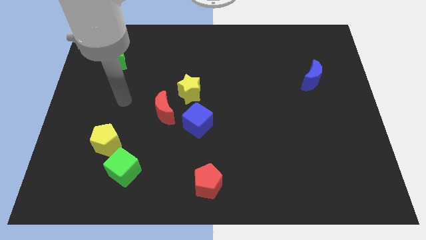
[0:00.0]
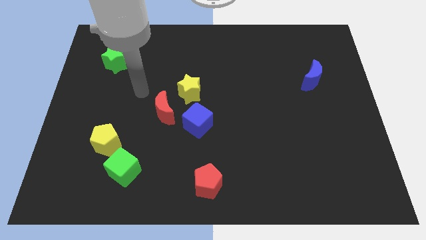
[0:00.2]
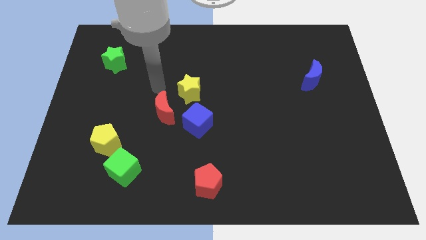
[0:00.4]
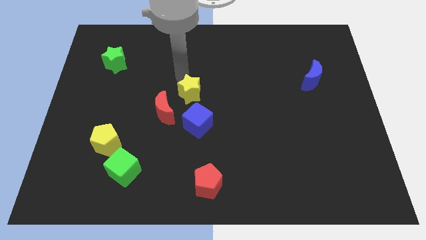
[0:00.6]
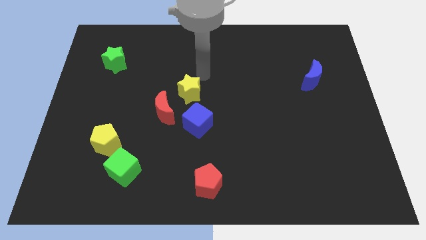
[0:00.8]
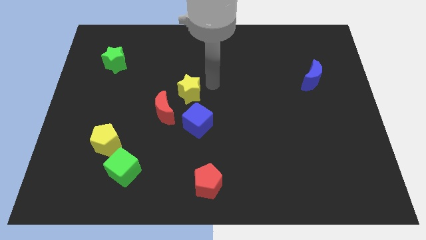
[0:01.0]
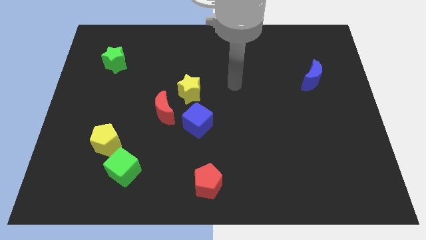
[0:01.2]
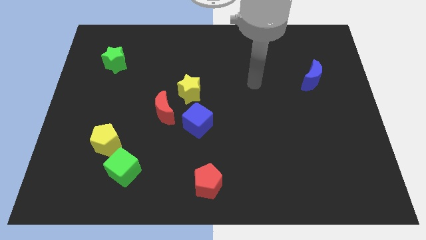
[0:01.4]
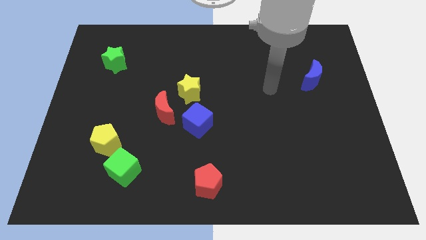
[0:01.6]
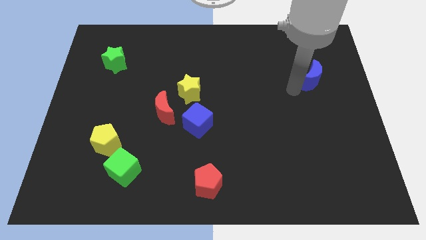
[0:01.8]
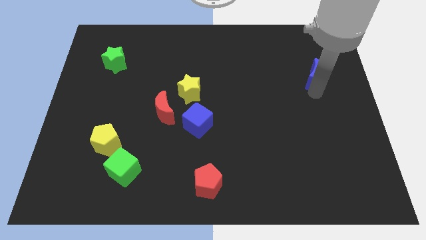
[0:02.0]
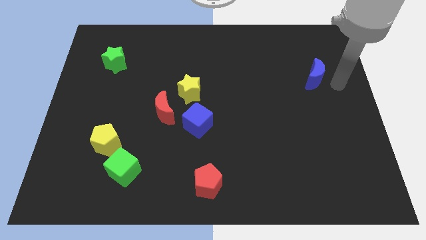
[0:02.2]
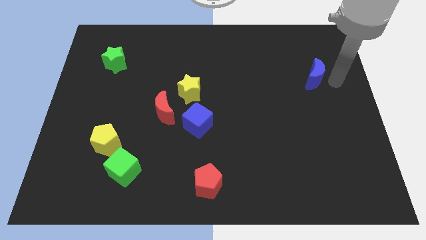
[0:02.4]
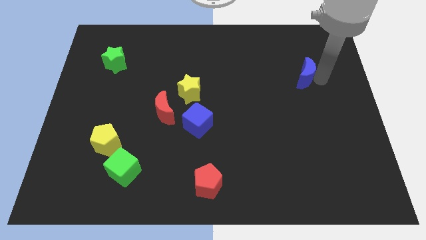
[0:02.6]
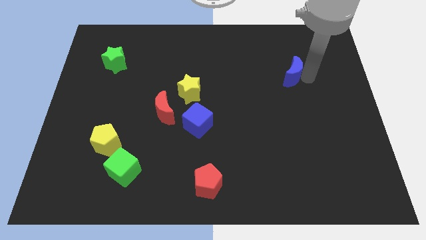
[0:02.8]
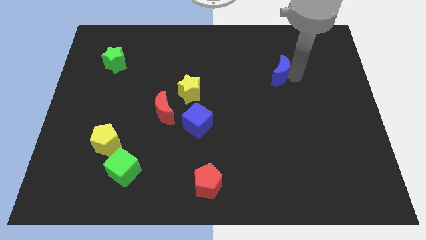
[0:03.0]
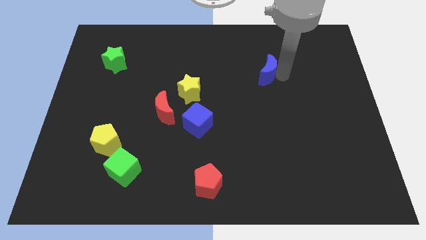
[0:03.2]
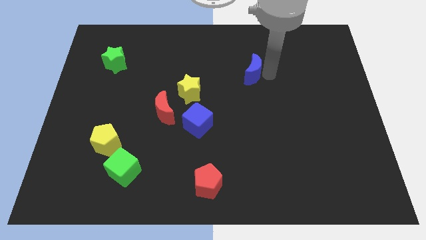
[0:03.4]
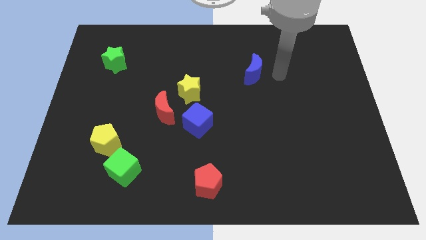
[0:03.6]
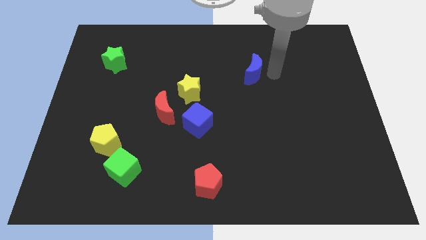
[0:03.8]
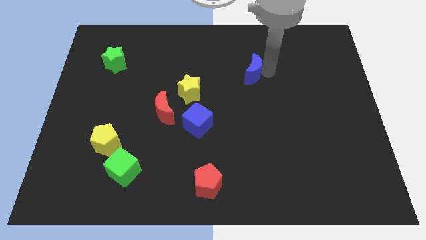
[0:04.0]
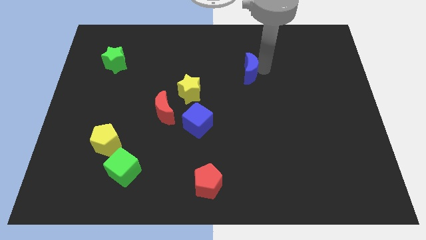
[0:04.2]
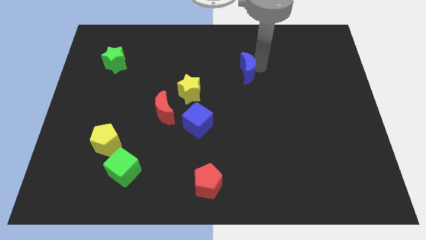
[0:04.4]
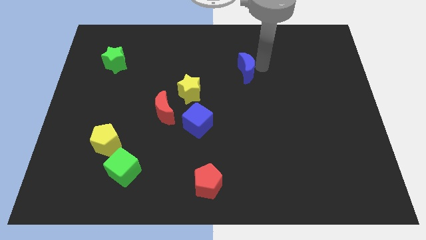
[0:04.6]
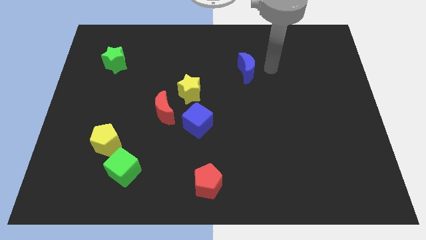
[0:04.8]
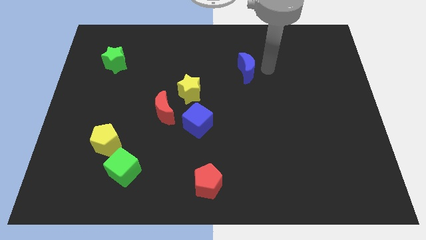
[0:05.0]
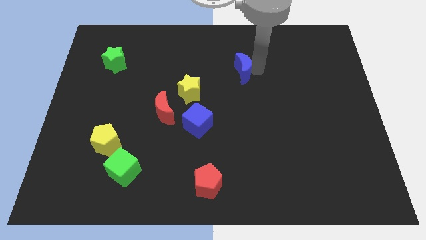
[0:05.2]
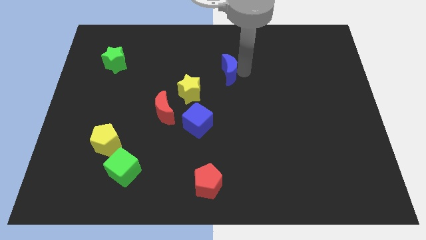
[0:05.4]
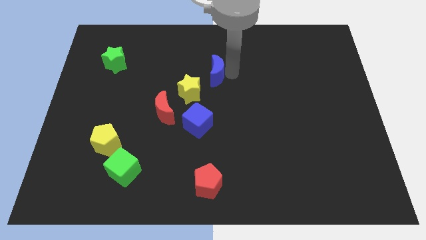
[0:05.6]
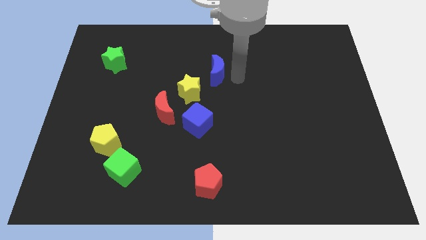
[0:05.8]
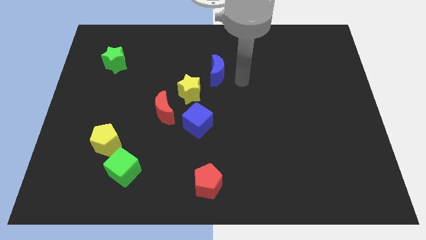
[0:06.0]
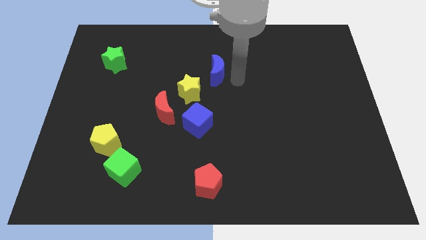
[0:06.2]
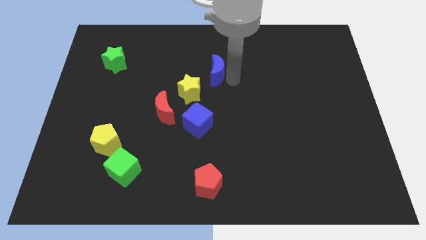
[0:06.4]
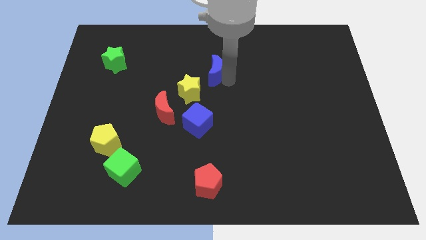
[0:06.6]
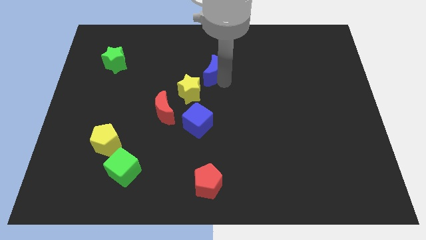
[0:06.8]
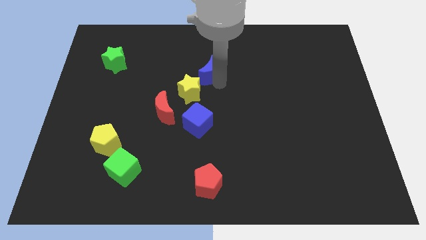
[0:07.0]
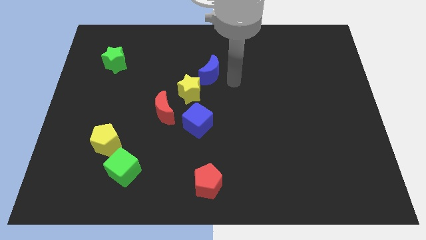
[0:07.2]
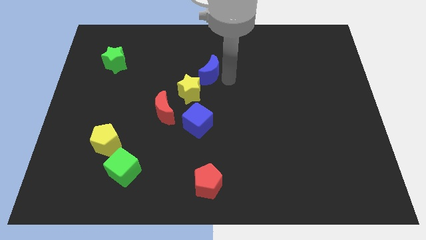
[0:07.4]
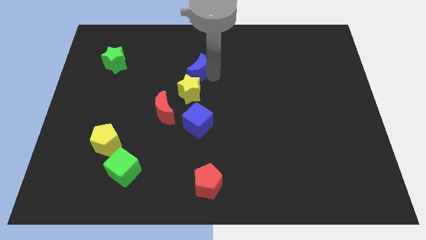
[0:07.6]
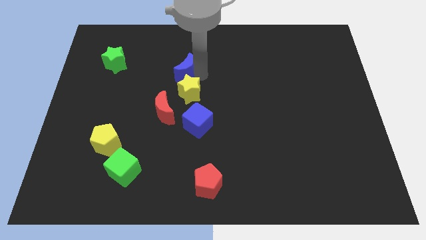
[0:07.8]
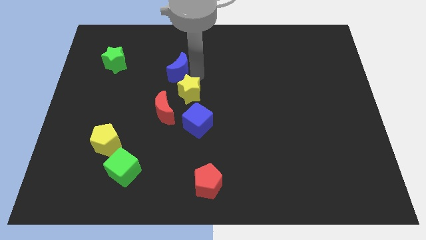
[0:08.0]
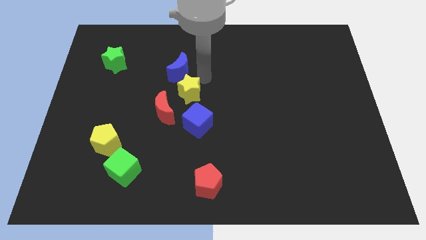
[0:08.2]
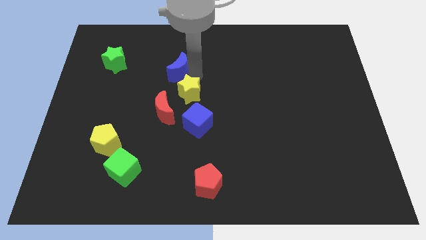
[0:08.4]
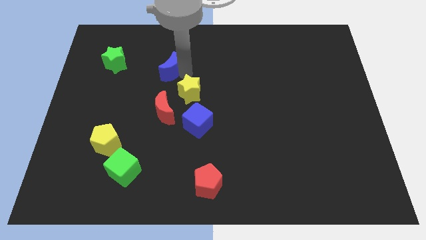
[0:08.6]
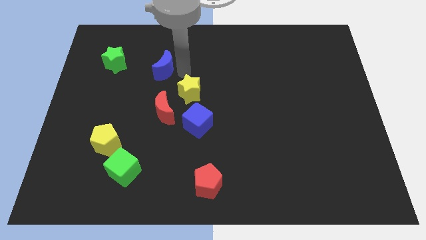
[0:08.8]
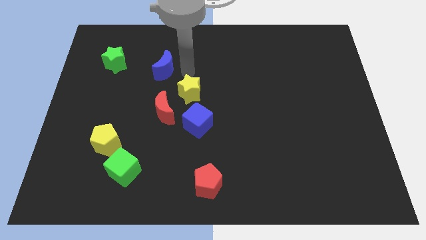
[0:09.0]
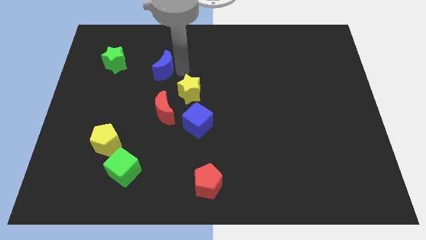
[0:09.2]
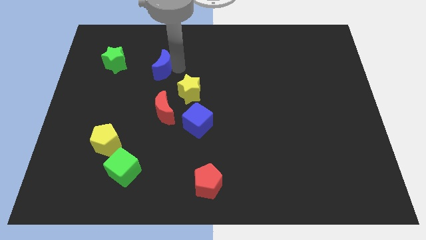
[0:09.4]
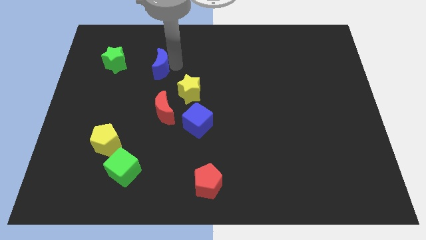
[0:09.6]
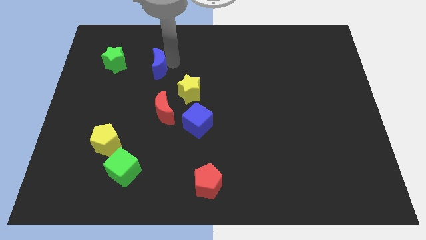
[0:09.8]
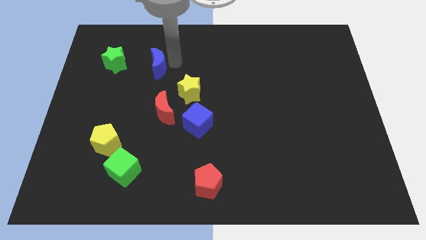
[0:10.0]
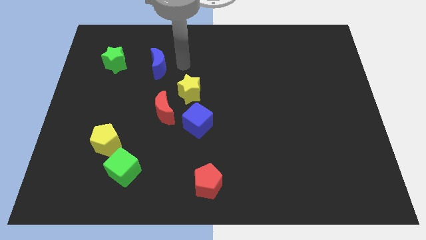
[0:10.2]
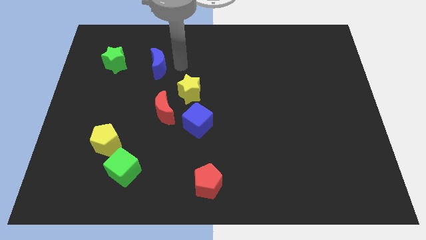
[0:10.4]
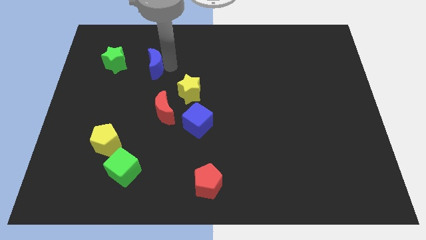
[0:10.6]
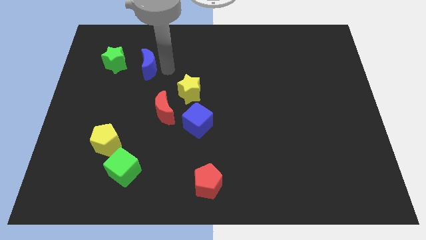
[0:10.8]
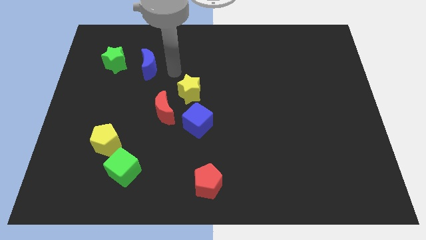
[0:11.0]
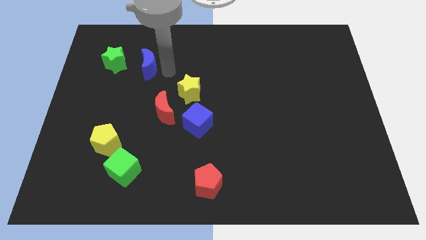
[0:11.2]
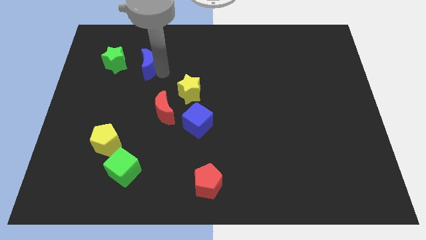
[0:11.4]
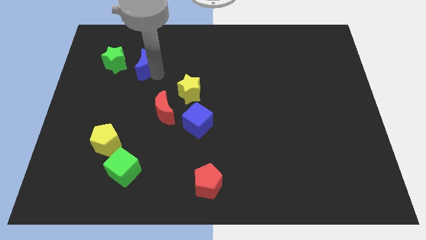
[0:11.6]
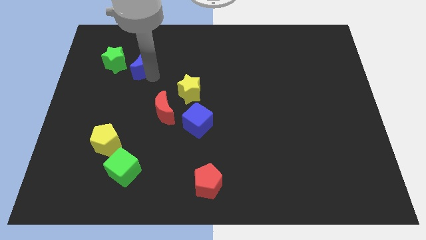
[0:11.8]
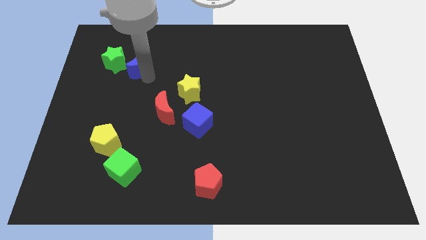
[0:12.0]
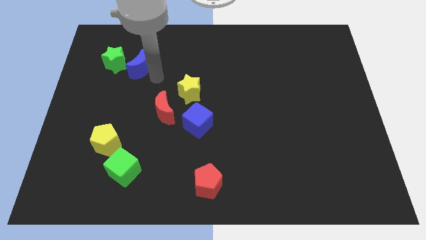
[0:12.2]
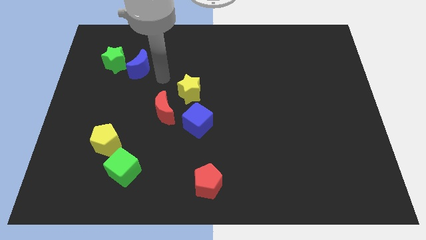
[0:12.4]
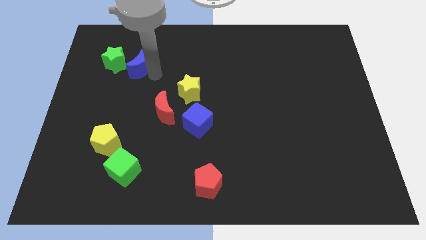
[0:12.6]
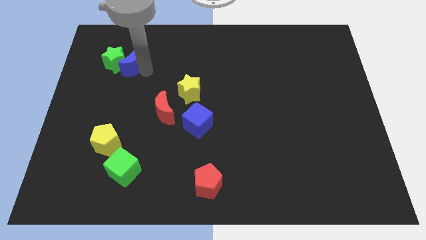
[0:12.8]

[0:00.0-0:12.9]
slide the blue moon next to the green star
